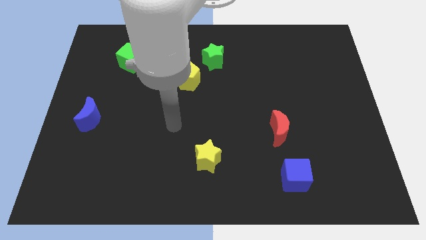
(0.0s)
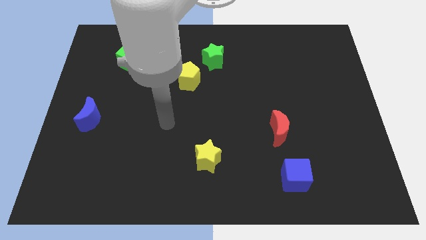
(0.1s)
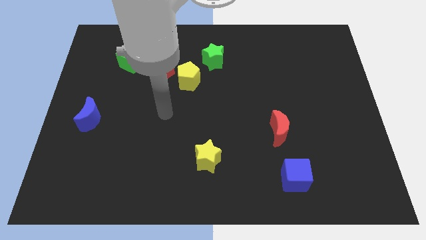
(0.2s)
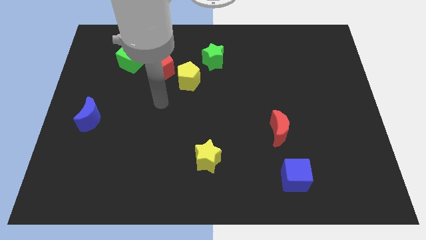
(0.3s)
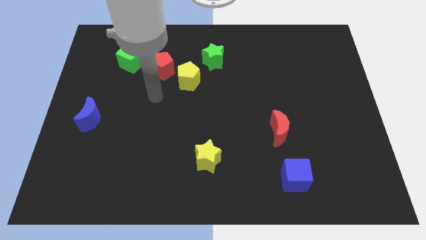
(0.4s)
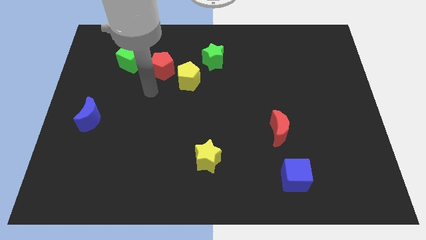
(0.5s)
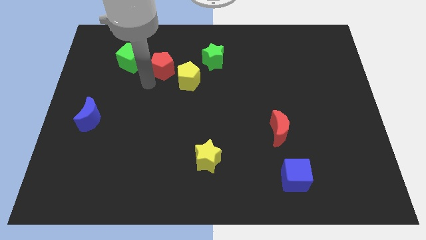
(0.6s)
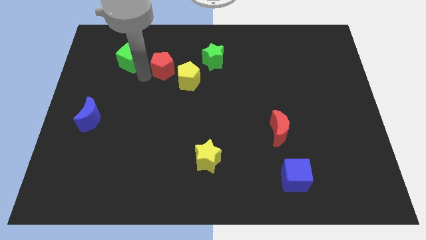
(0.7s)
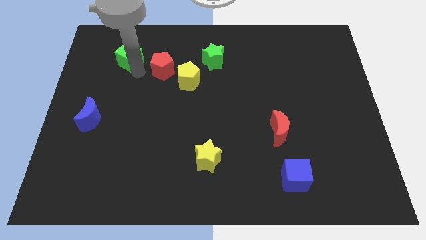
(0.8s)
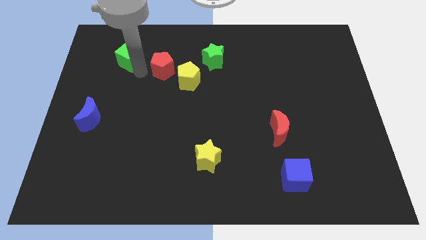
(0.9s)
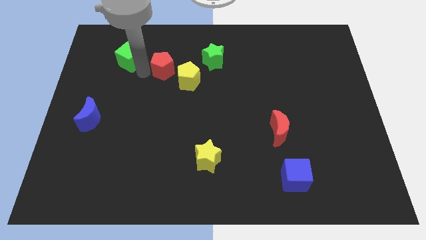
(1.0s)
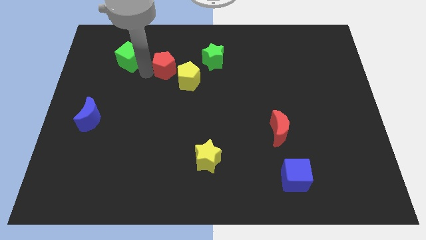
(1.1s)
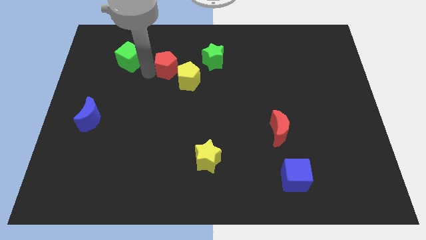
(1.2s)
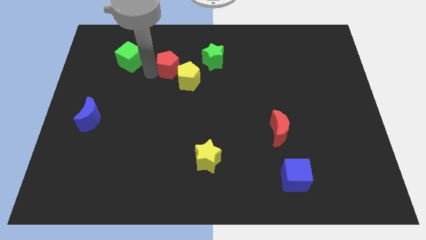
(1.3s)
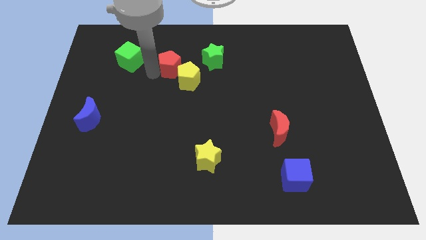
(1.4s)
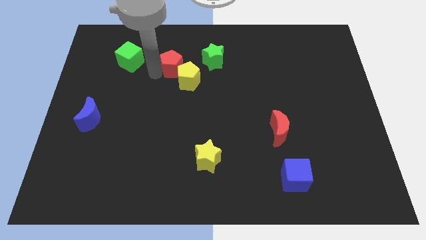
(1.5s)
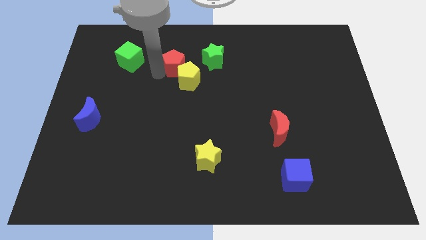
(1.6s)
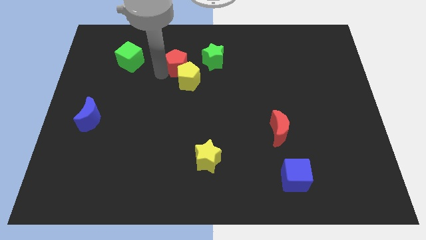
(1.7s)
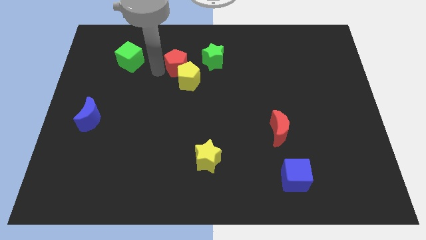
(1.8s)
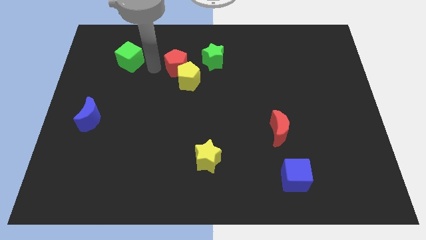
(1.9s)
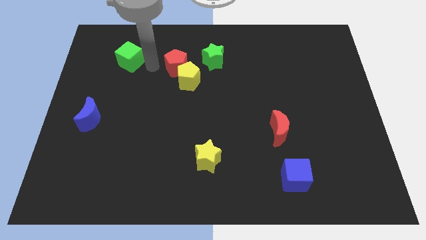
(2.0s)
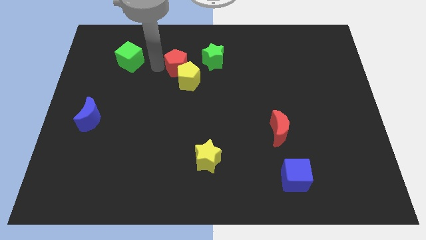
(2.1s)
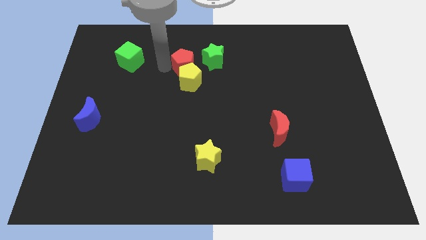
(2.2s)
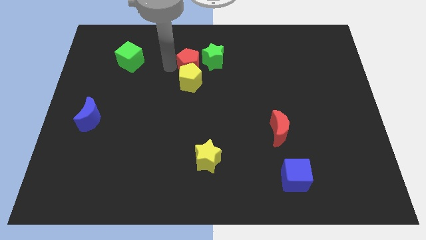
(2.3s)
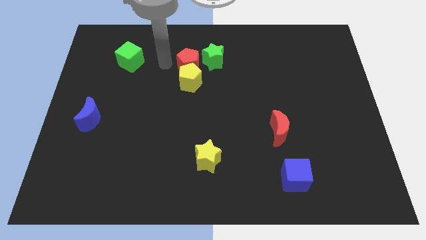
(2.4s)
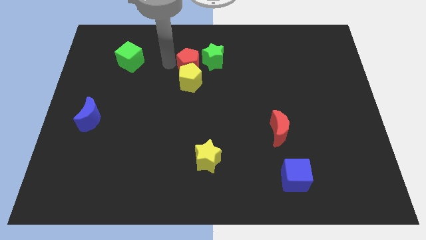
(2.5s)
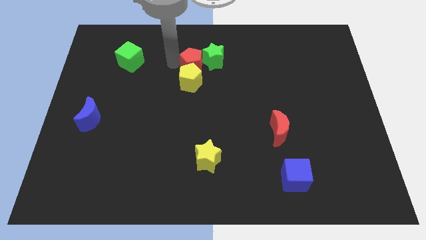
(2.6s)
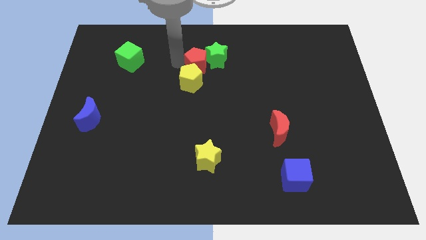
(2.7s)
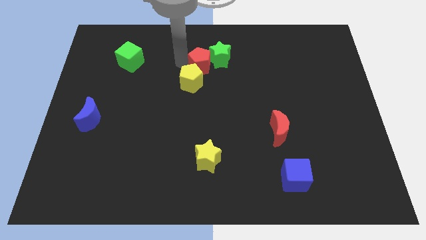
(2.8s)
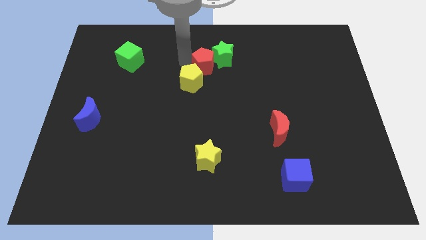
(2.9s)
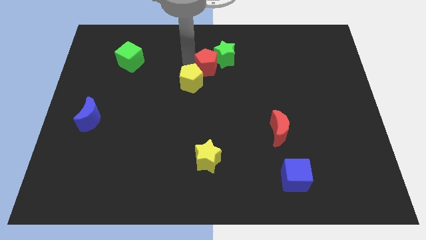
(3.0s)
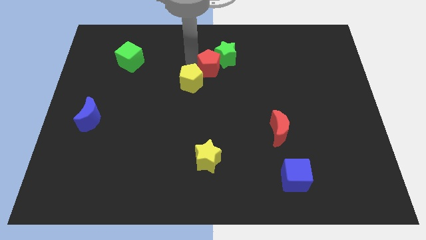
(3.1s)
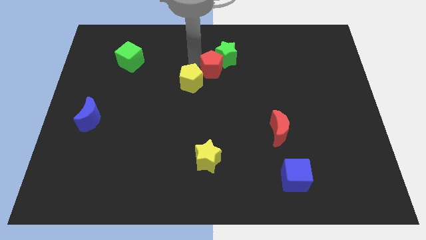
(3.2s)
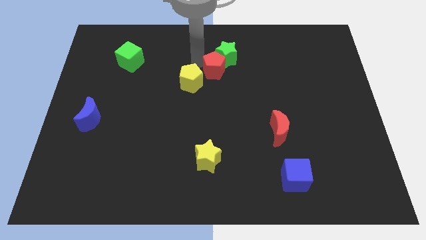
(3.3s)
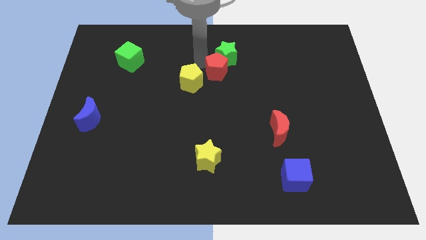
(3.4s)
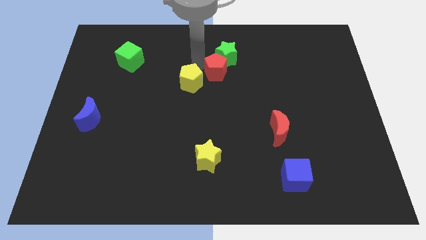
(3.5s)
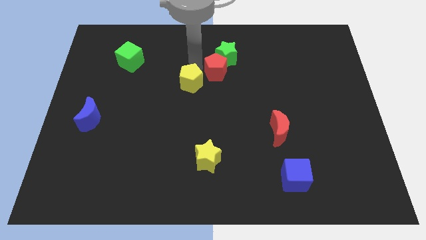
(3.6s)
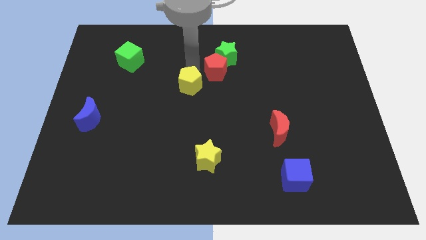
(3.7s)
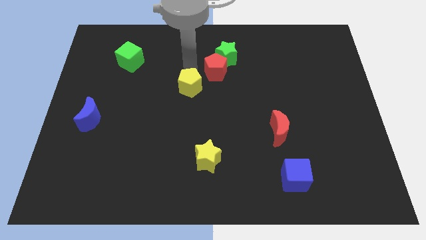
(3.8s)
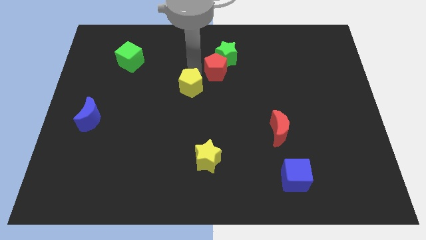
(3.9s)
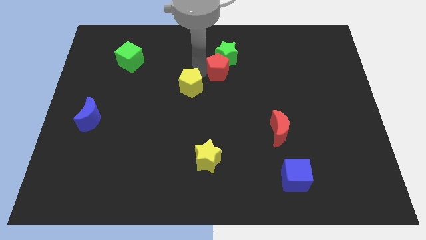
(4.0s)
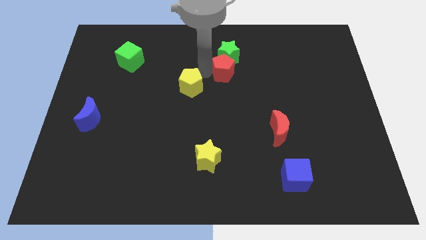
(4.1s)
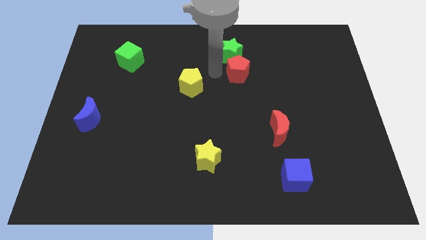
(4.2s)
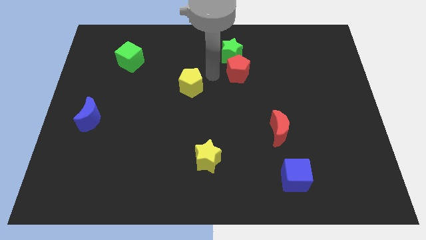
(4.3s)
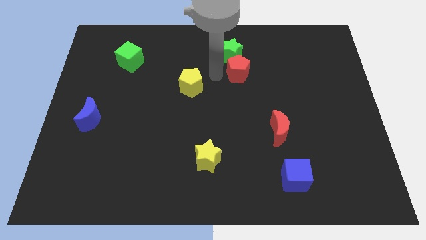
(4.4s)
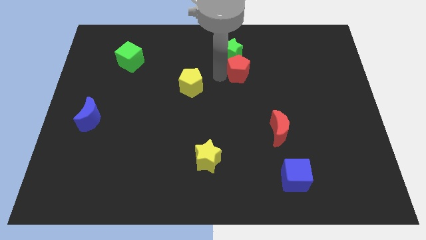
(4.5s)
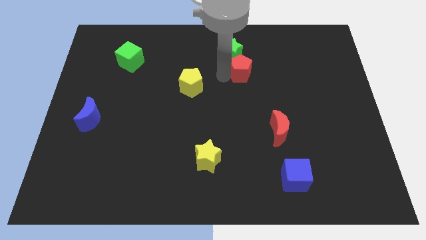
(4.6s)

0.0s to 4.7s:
push the red pentagon right

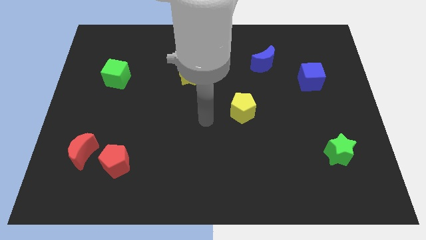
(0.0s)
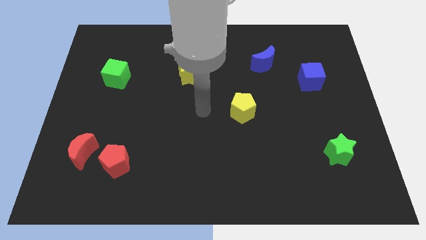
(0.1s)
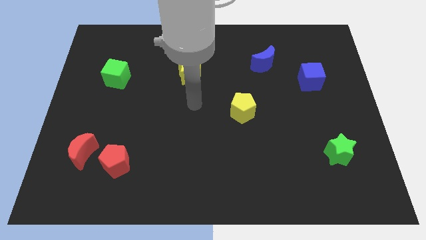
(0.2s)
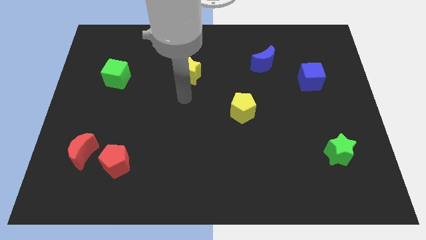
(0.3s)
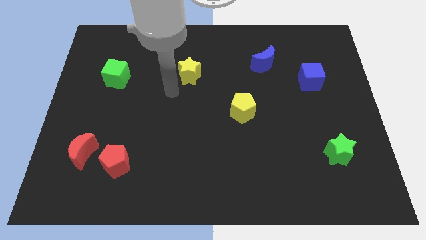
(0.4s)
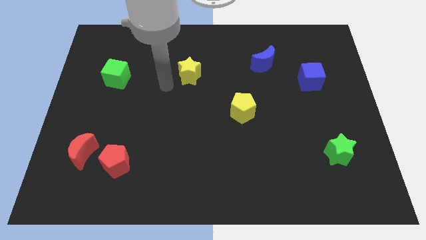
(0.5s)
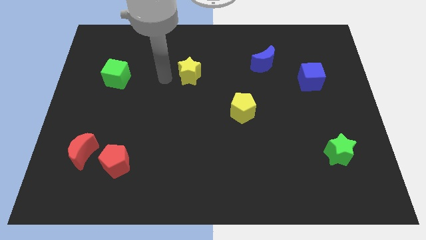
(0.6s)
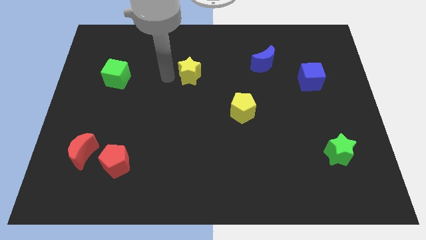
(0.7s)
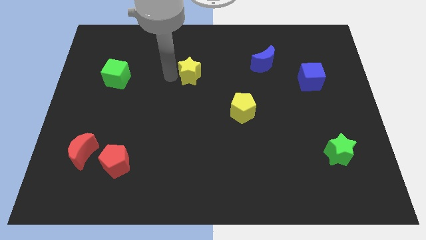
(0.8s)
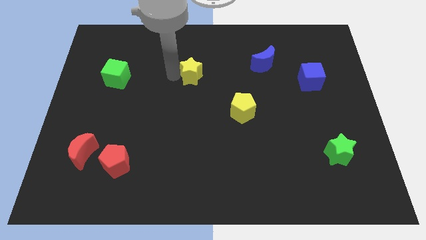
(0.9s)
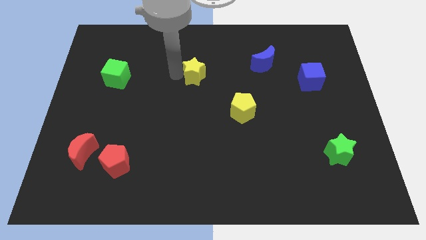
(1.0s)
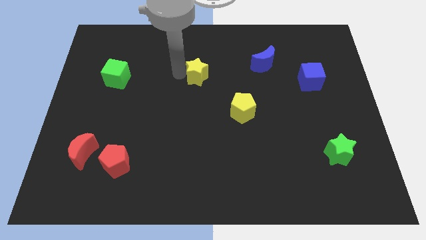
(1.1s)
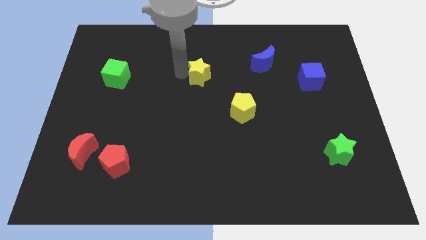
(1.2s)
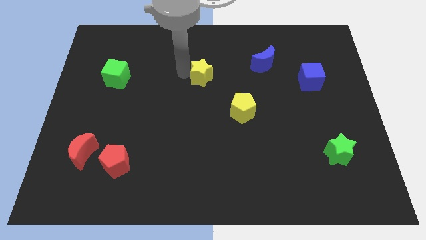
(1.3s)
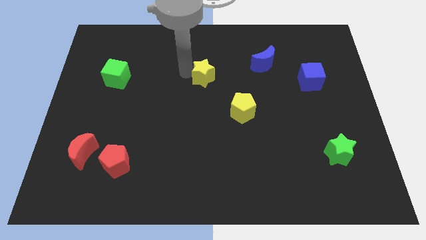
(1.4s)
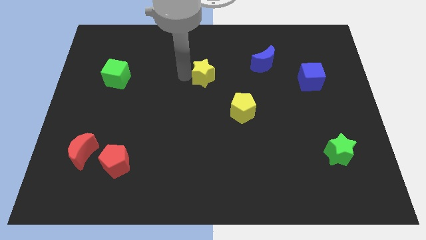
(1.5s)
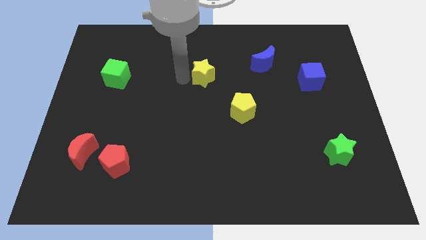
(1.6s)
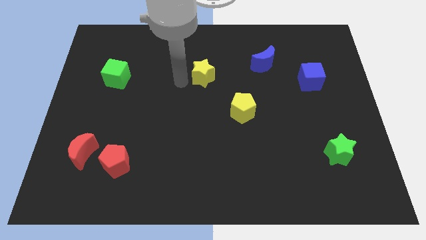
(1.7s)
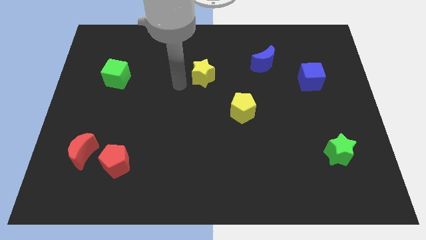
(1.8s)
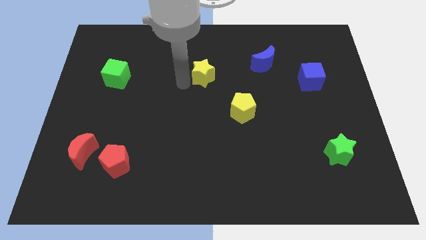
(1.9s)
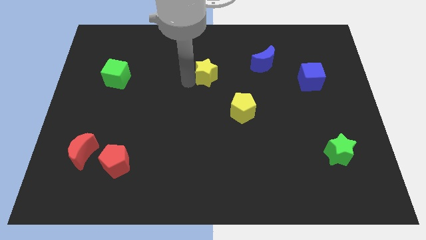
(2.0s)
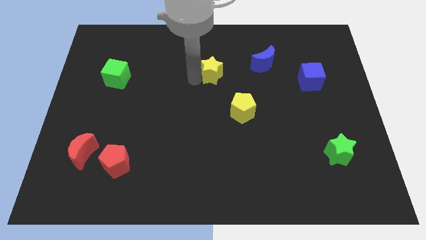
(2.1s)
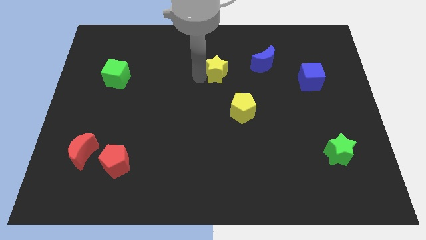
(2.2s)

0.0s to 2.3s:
slightly move the yellow star to the right

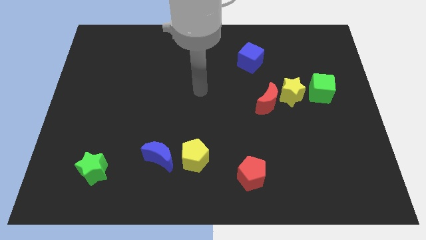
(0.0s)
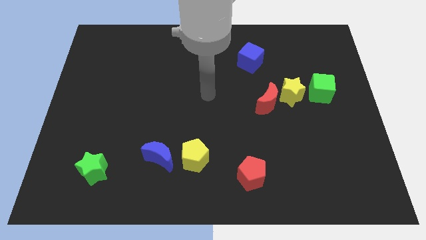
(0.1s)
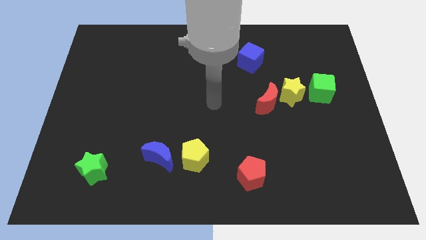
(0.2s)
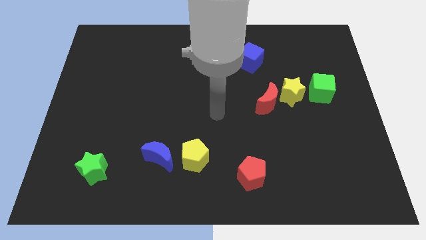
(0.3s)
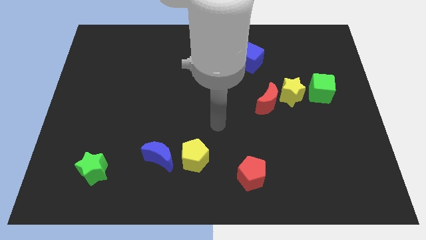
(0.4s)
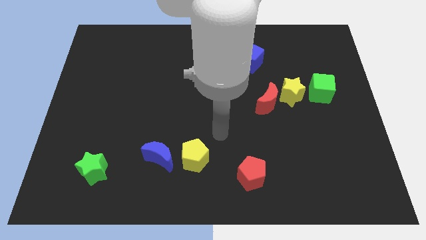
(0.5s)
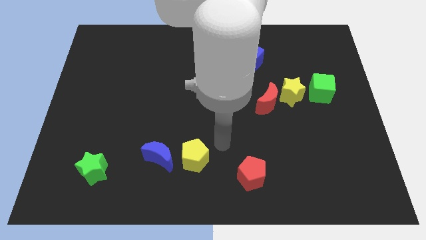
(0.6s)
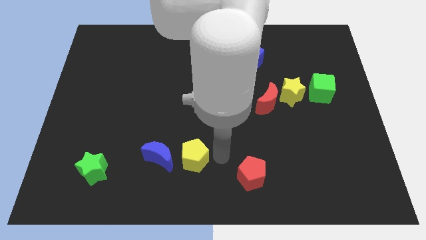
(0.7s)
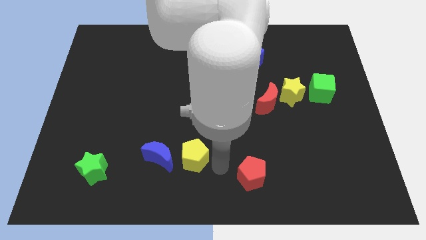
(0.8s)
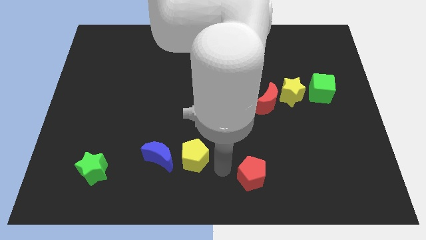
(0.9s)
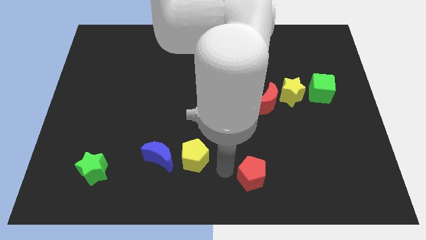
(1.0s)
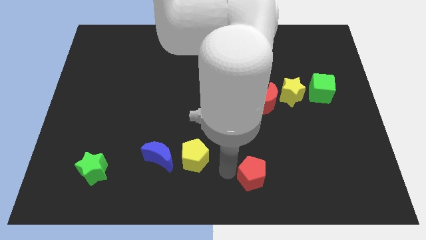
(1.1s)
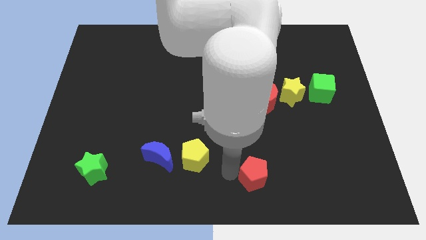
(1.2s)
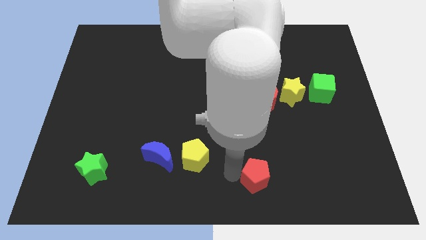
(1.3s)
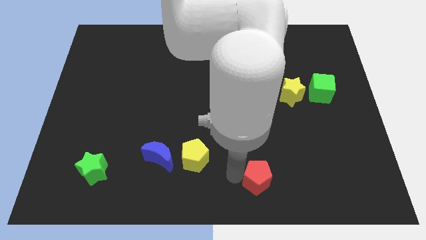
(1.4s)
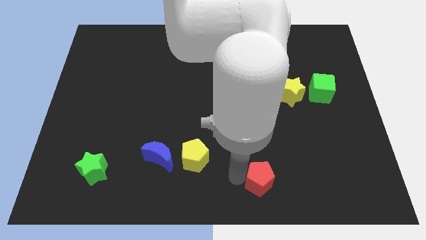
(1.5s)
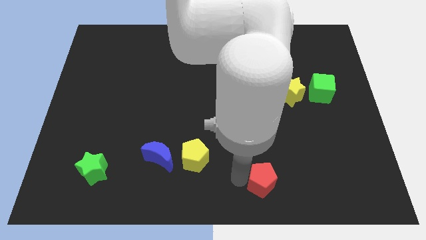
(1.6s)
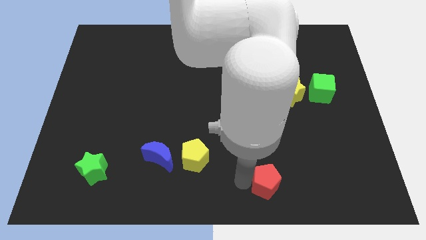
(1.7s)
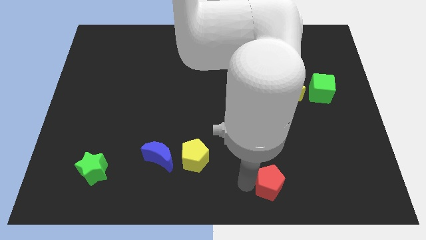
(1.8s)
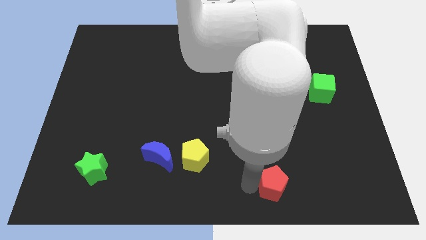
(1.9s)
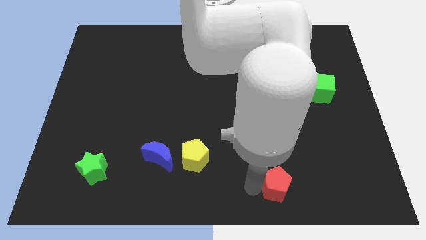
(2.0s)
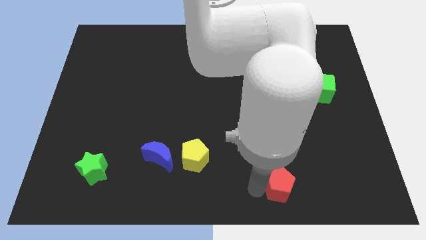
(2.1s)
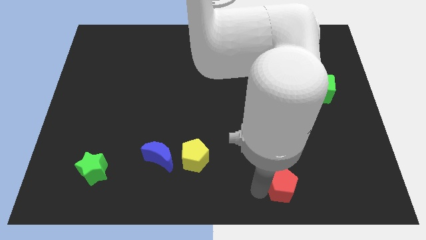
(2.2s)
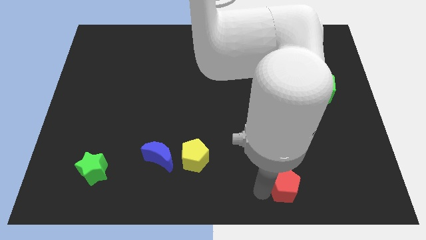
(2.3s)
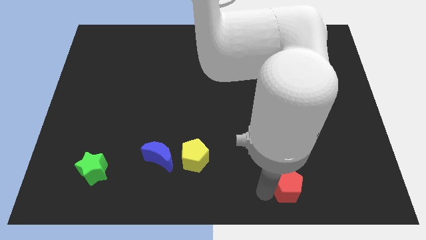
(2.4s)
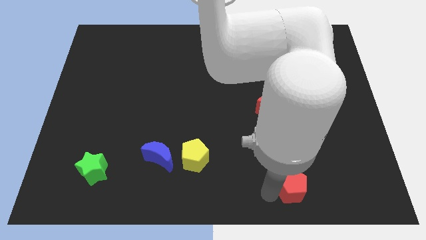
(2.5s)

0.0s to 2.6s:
slightly slide the red pentagon right
